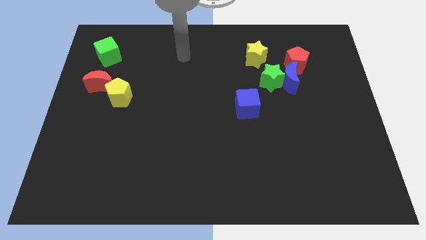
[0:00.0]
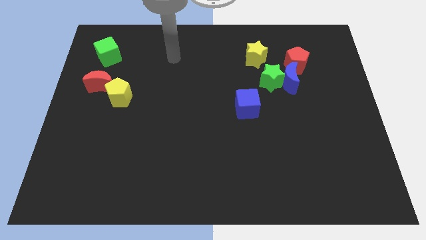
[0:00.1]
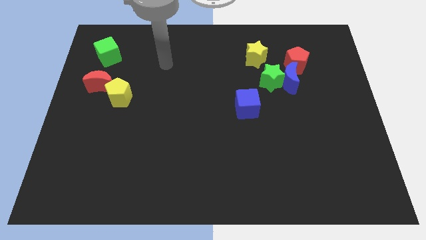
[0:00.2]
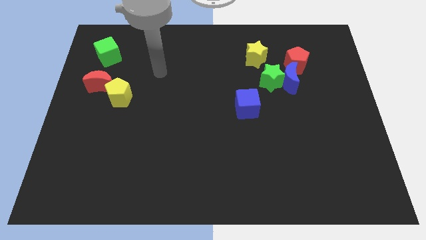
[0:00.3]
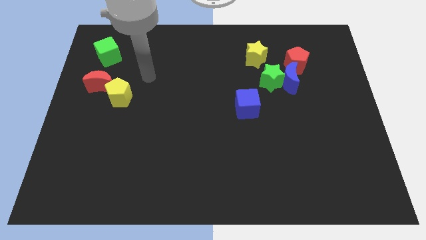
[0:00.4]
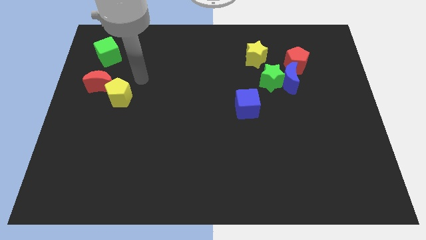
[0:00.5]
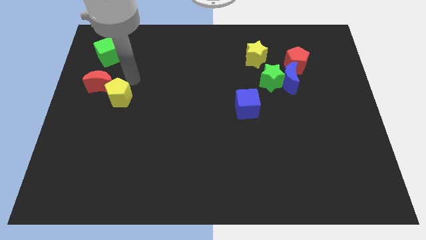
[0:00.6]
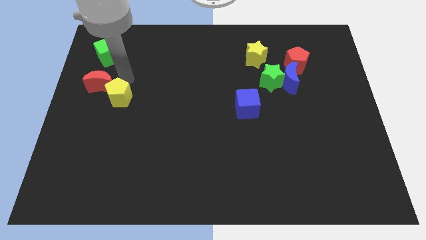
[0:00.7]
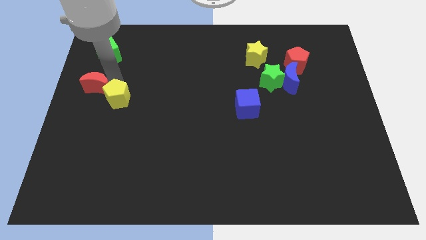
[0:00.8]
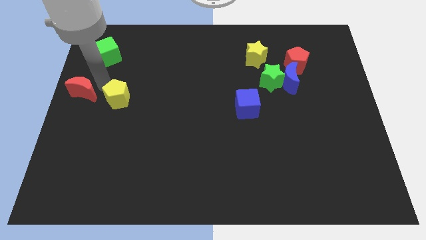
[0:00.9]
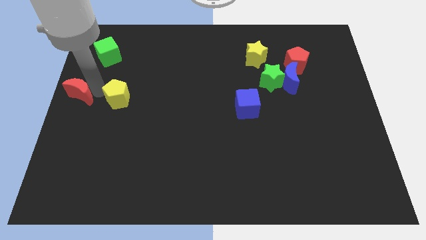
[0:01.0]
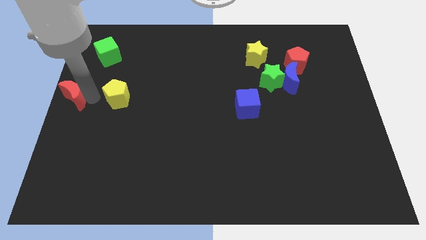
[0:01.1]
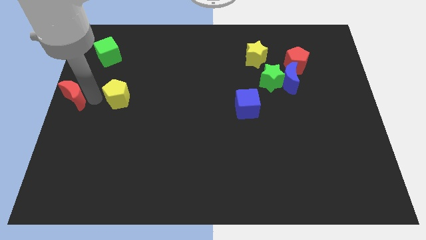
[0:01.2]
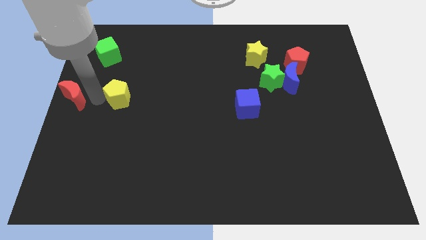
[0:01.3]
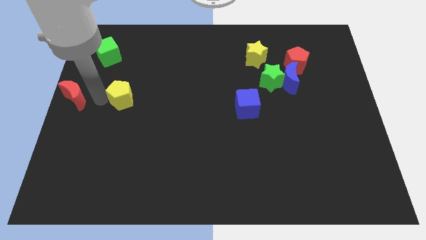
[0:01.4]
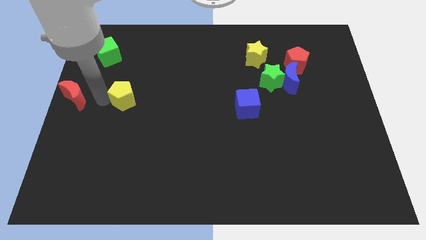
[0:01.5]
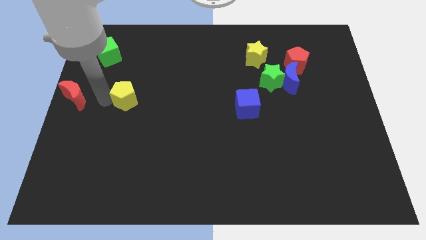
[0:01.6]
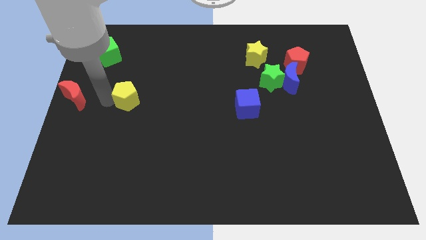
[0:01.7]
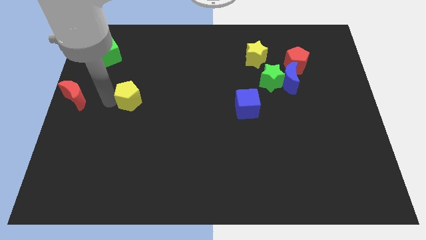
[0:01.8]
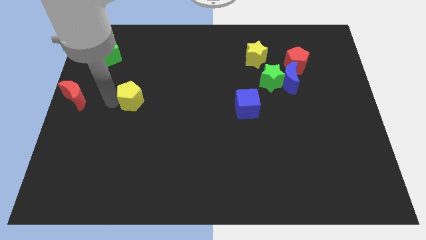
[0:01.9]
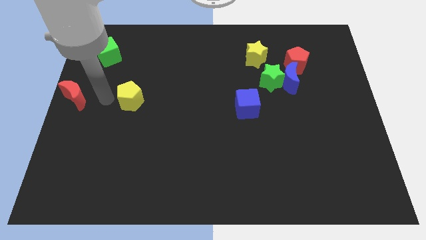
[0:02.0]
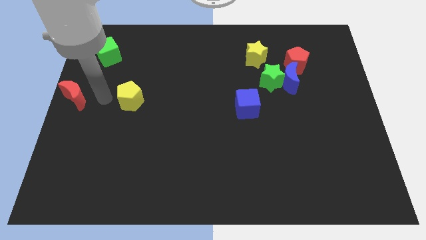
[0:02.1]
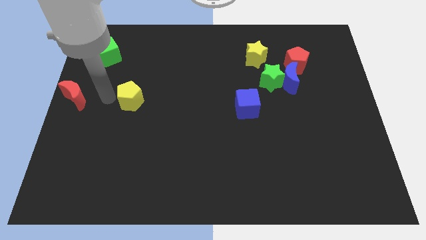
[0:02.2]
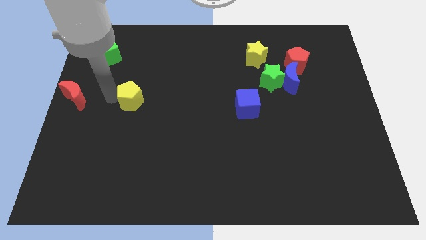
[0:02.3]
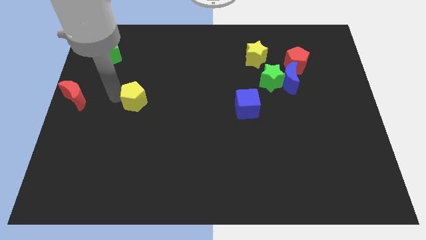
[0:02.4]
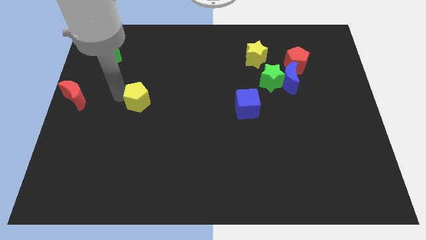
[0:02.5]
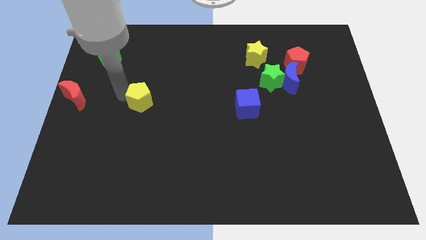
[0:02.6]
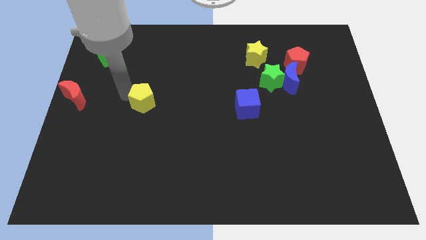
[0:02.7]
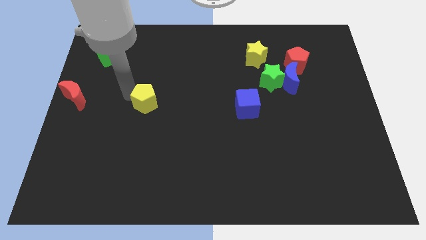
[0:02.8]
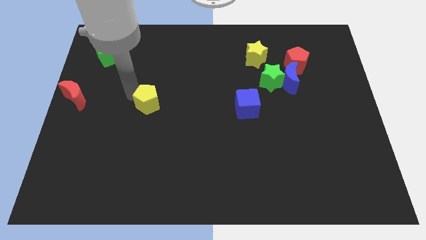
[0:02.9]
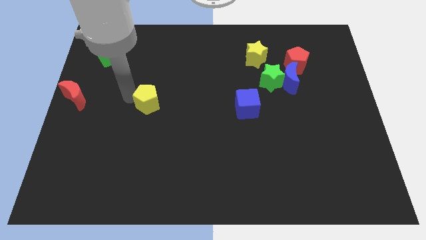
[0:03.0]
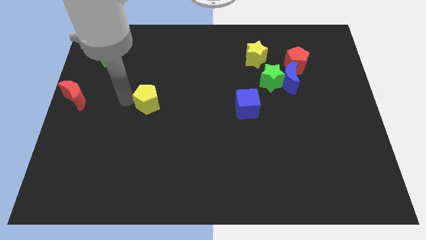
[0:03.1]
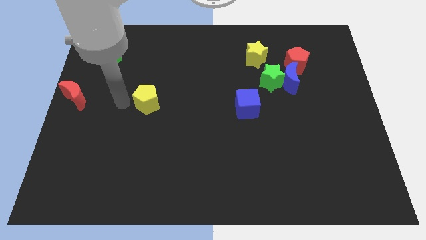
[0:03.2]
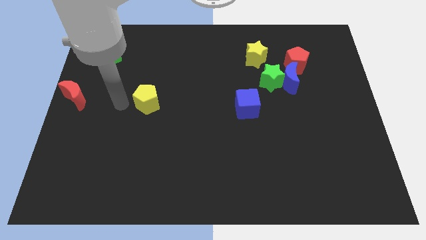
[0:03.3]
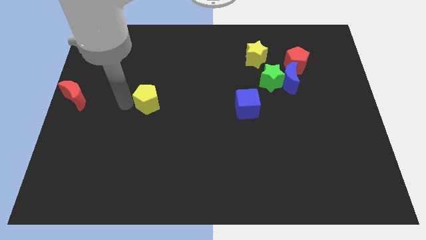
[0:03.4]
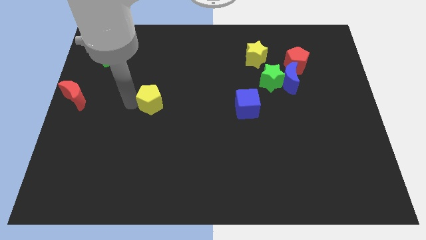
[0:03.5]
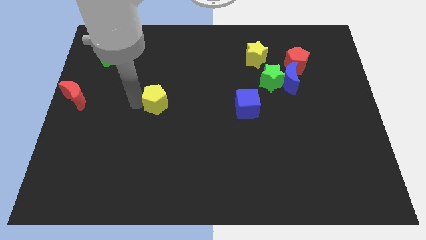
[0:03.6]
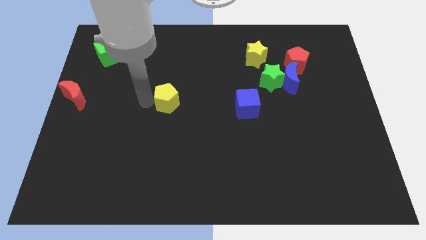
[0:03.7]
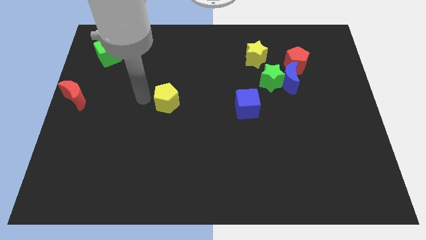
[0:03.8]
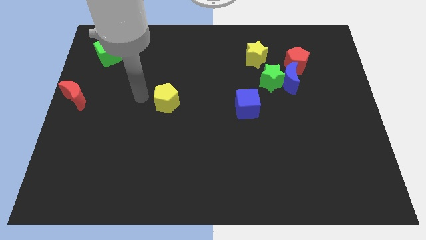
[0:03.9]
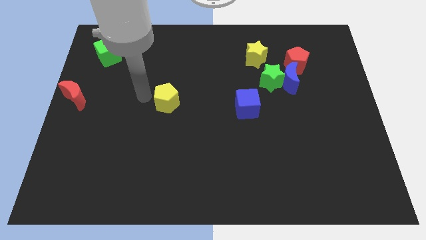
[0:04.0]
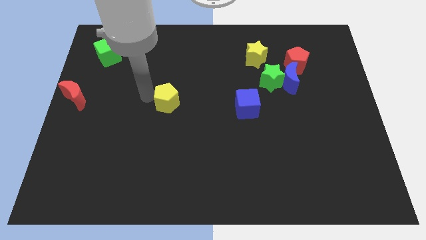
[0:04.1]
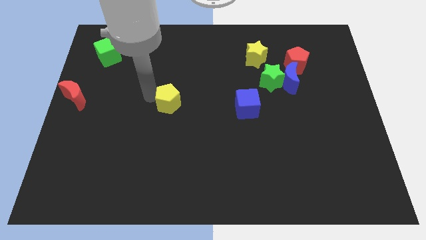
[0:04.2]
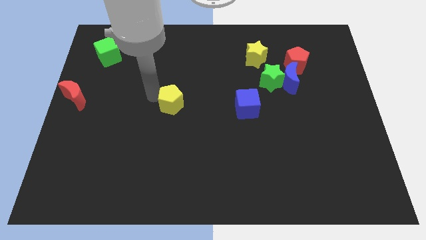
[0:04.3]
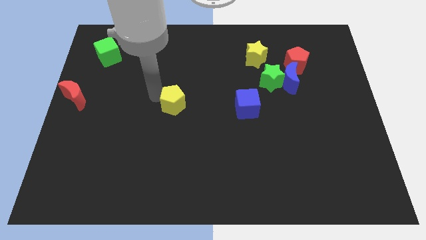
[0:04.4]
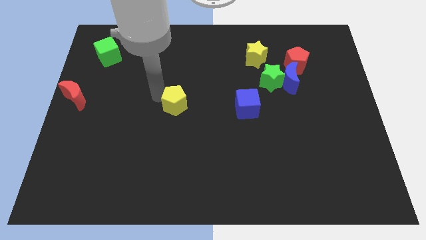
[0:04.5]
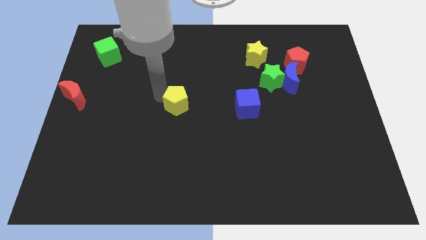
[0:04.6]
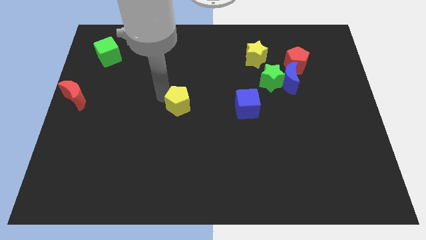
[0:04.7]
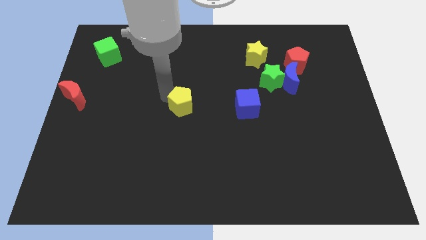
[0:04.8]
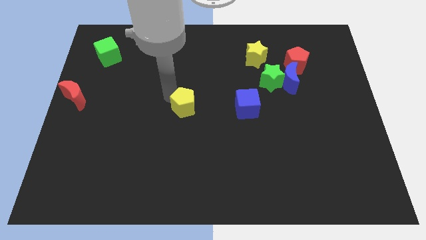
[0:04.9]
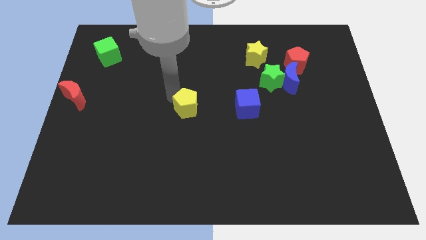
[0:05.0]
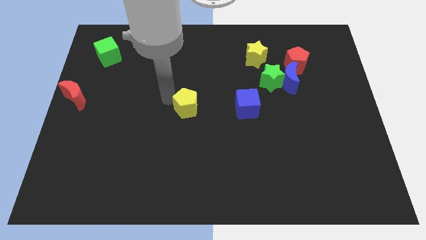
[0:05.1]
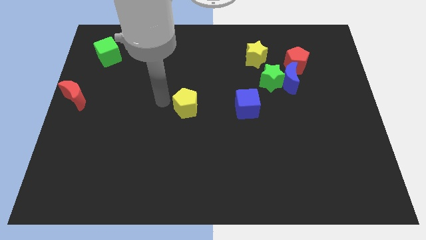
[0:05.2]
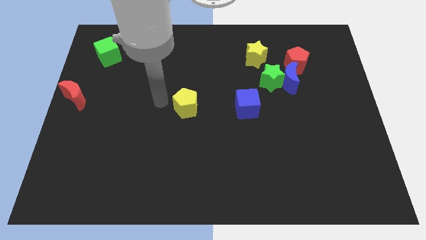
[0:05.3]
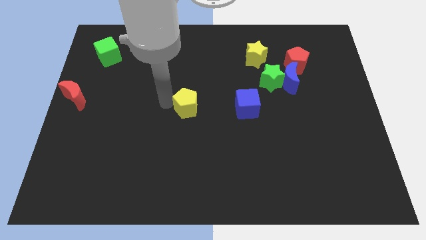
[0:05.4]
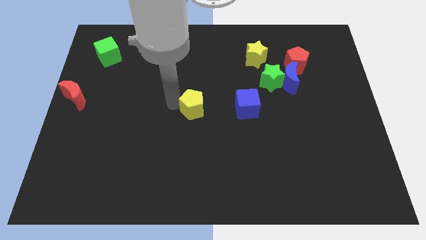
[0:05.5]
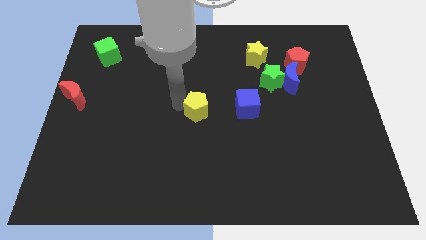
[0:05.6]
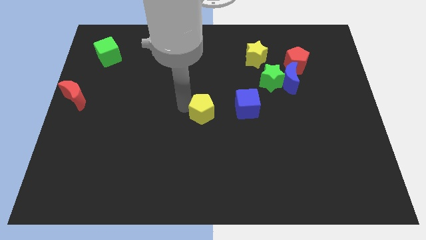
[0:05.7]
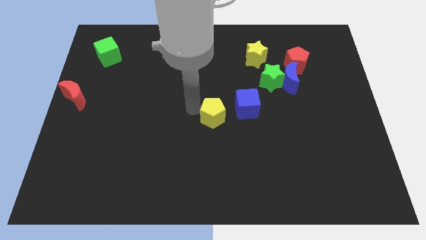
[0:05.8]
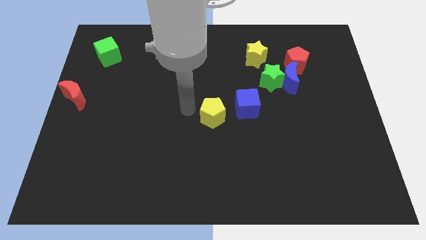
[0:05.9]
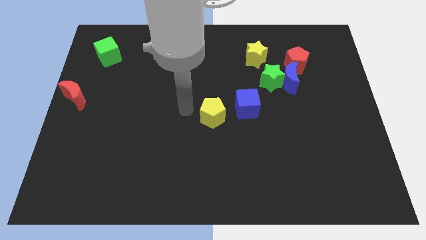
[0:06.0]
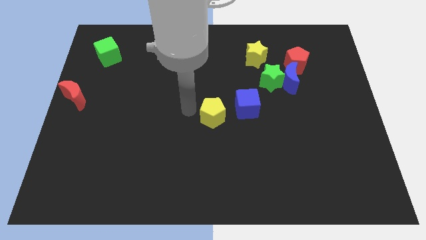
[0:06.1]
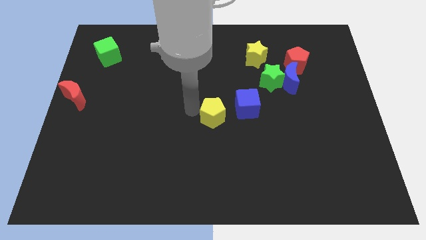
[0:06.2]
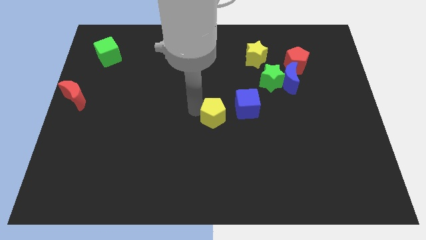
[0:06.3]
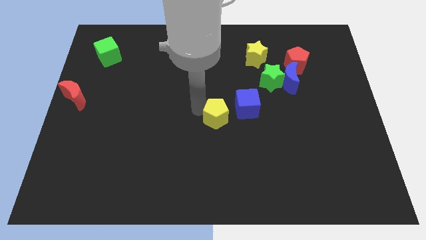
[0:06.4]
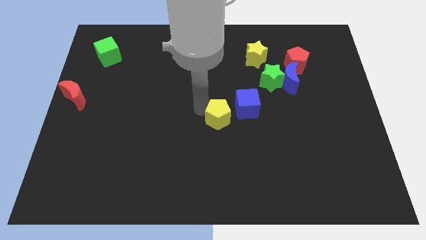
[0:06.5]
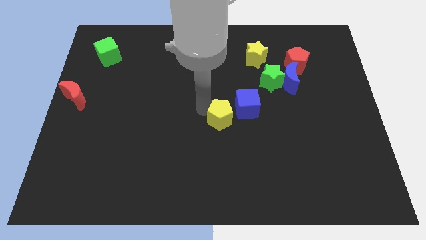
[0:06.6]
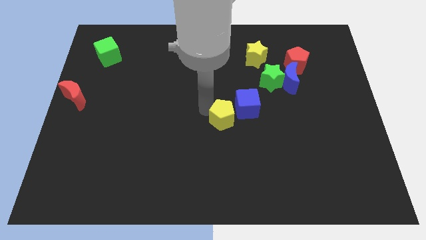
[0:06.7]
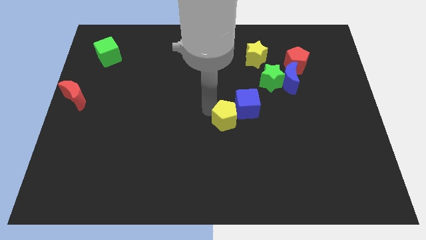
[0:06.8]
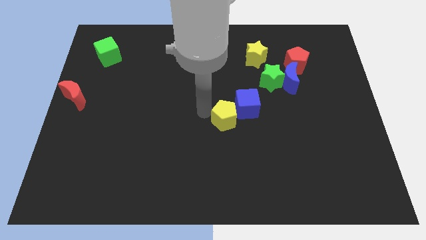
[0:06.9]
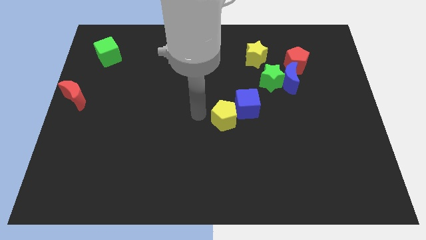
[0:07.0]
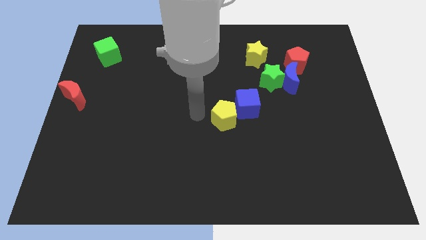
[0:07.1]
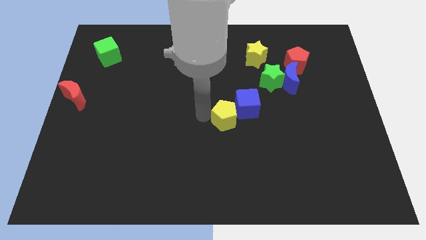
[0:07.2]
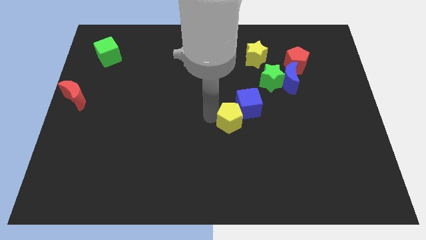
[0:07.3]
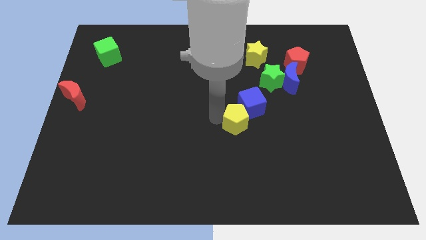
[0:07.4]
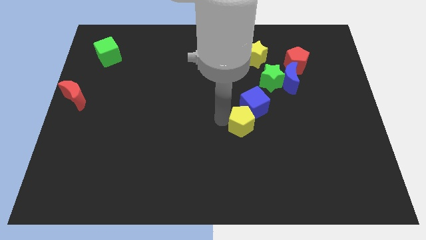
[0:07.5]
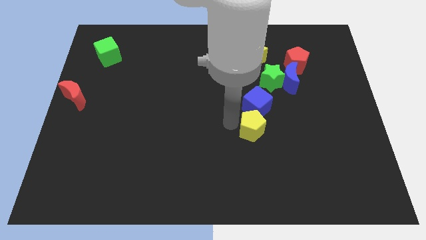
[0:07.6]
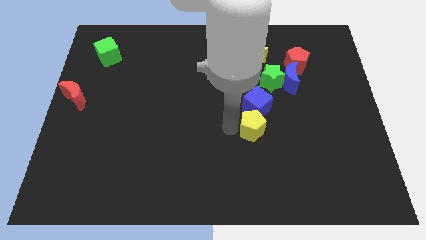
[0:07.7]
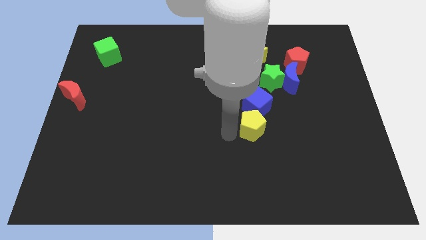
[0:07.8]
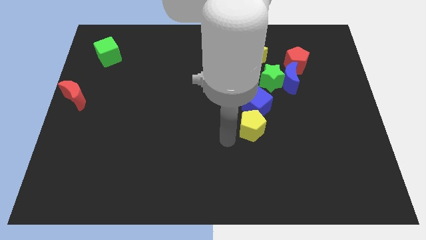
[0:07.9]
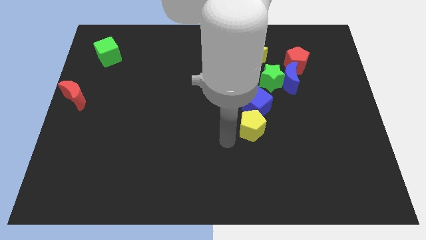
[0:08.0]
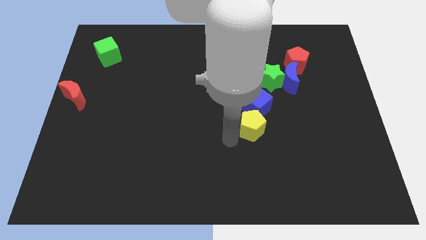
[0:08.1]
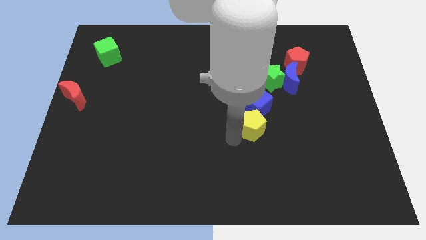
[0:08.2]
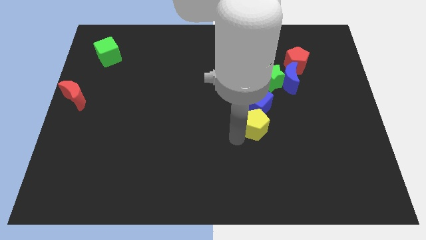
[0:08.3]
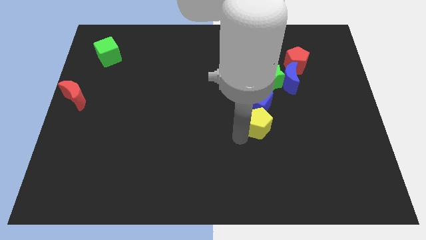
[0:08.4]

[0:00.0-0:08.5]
put the yellow pentagon below the green star
